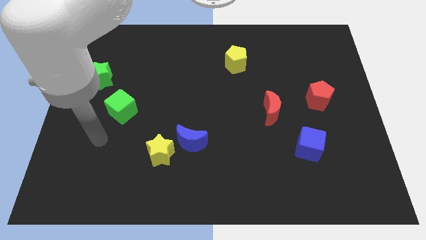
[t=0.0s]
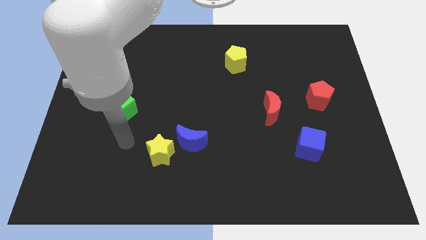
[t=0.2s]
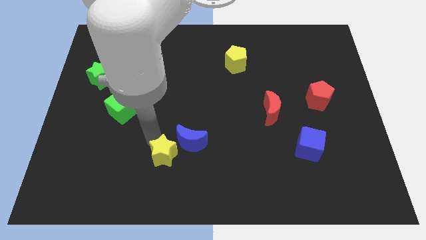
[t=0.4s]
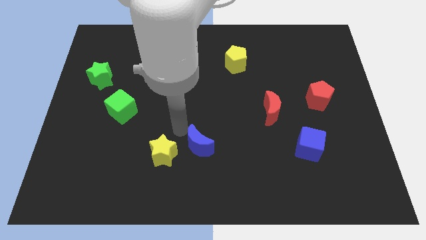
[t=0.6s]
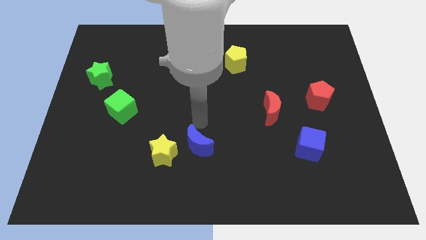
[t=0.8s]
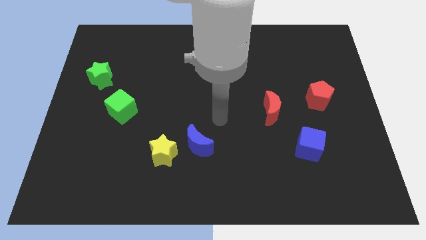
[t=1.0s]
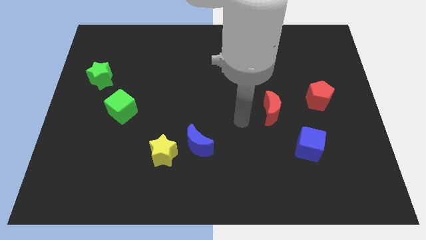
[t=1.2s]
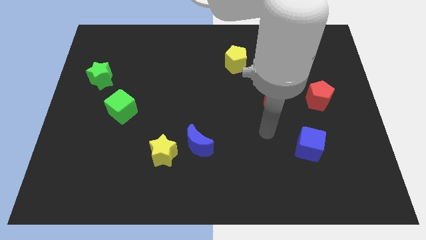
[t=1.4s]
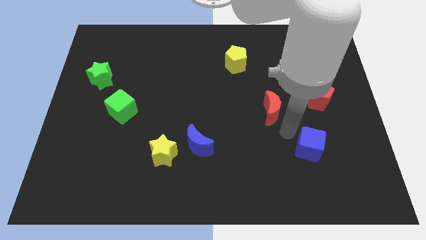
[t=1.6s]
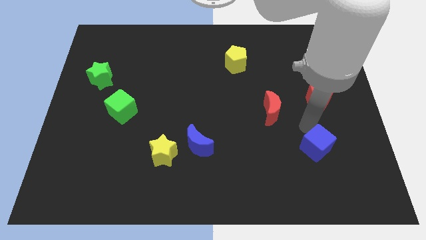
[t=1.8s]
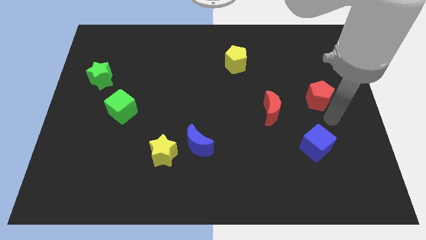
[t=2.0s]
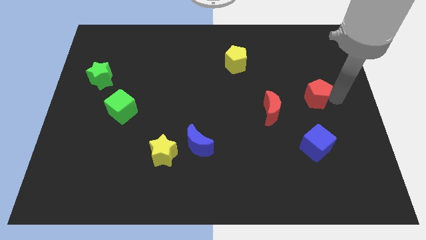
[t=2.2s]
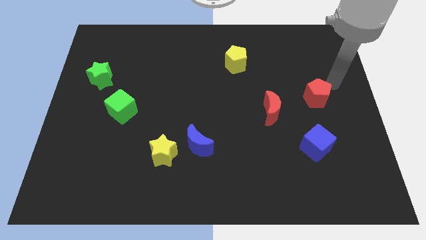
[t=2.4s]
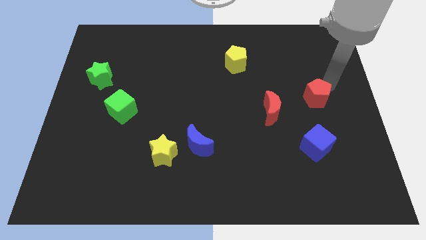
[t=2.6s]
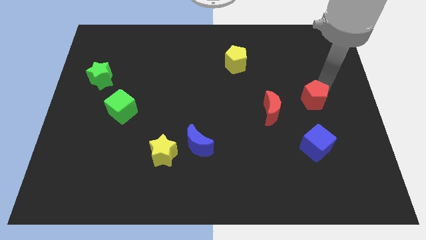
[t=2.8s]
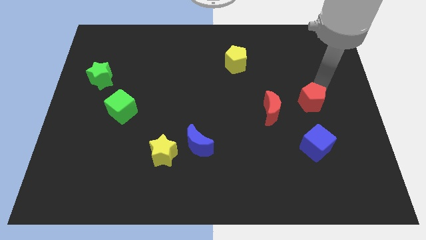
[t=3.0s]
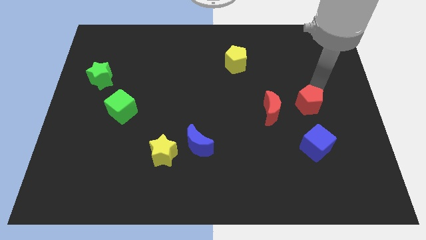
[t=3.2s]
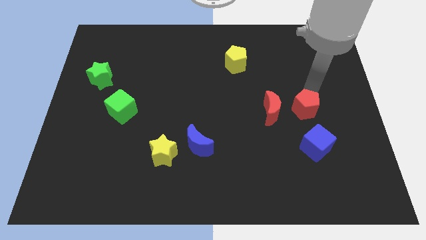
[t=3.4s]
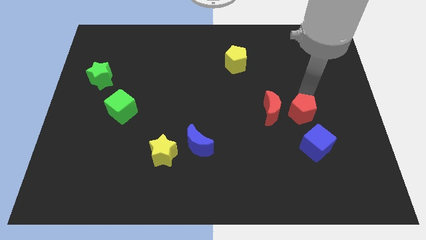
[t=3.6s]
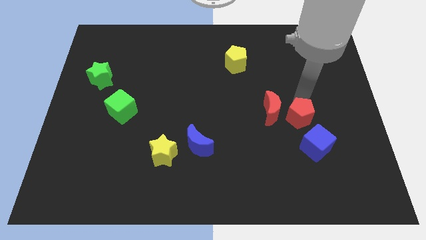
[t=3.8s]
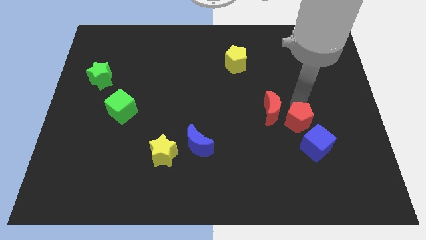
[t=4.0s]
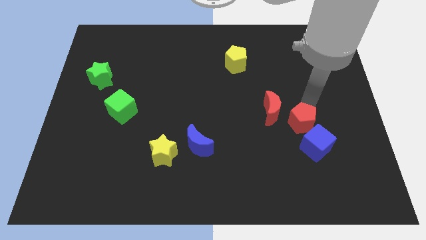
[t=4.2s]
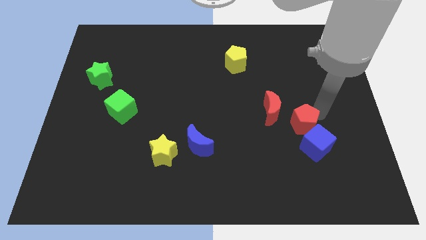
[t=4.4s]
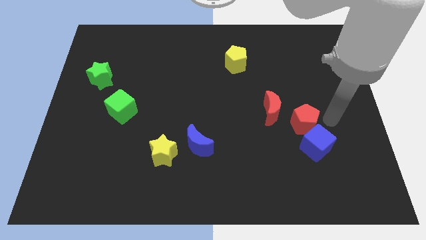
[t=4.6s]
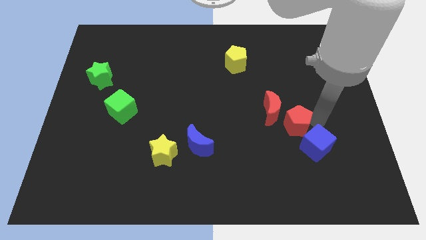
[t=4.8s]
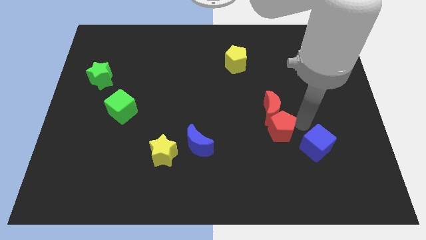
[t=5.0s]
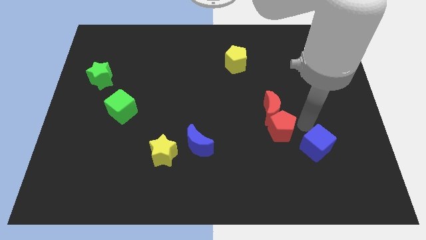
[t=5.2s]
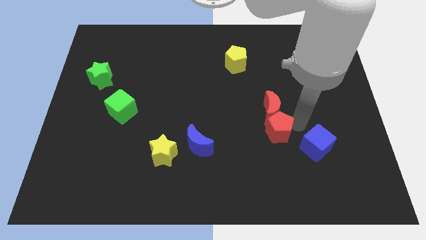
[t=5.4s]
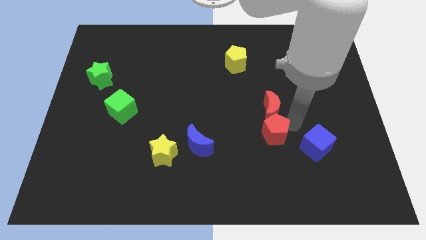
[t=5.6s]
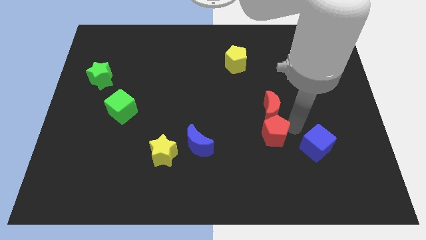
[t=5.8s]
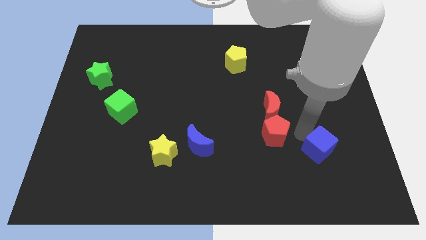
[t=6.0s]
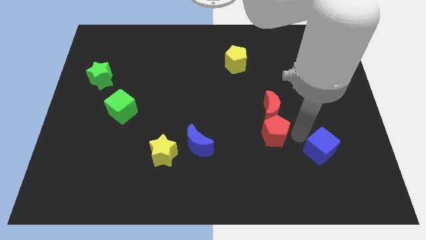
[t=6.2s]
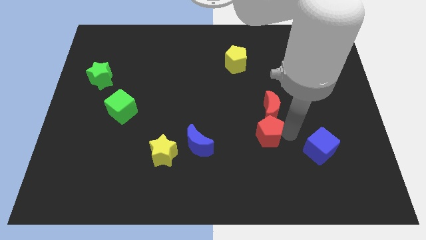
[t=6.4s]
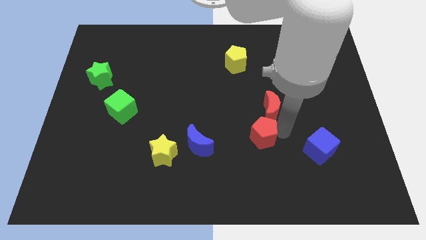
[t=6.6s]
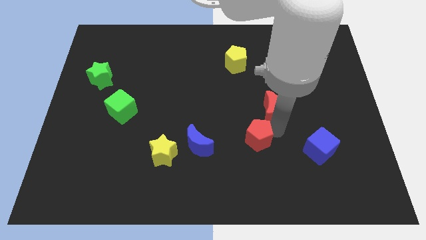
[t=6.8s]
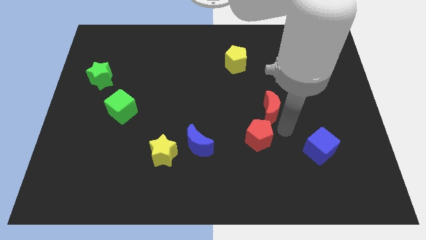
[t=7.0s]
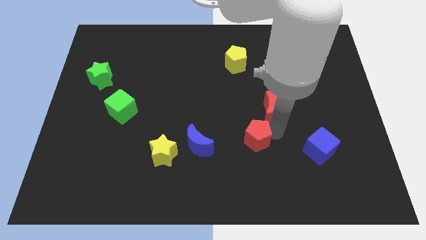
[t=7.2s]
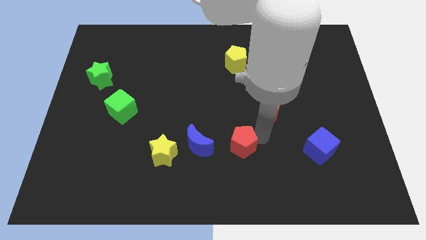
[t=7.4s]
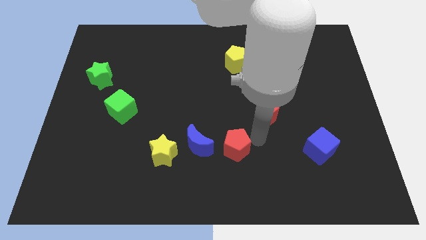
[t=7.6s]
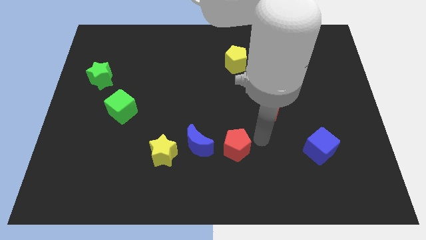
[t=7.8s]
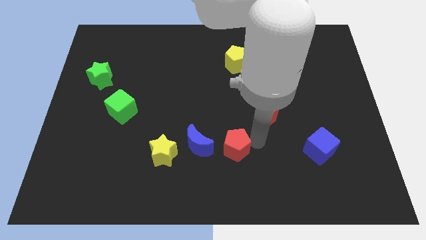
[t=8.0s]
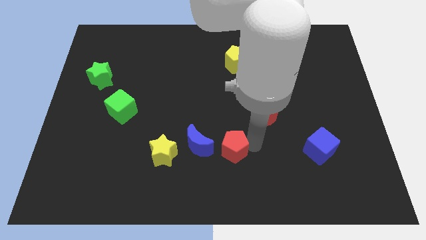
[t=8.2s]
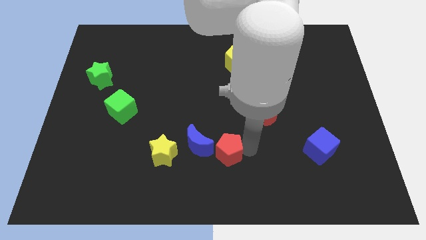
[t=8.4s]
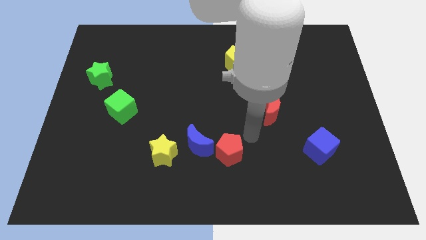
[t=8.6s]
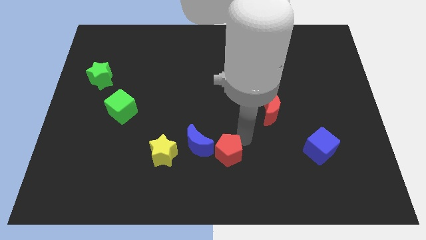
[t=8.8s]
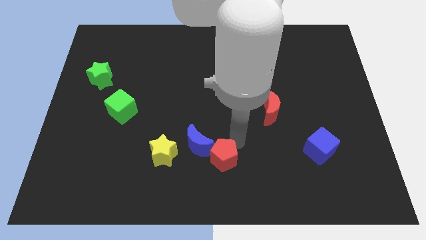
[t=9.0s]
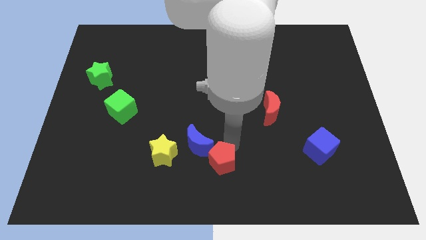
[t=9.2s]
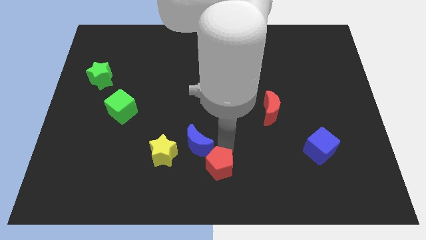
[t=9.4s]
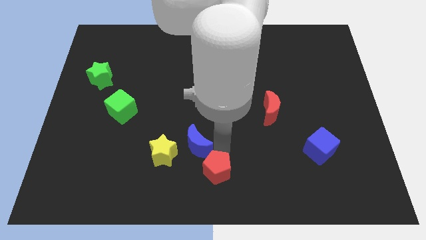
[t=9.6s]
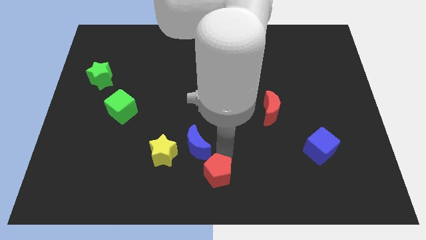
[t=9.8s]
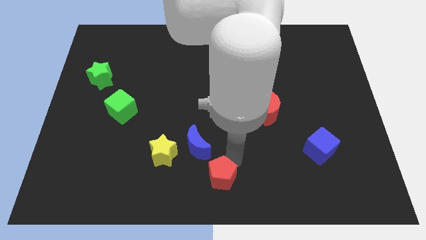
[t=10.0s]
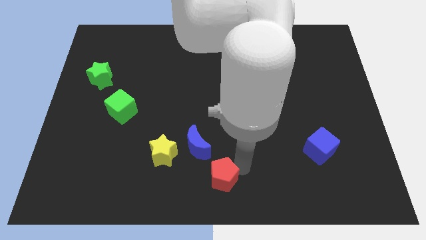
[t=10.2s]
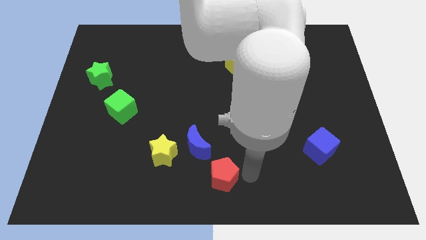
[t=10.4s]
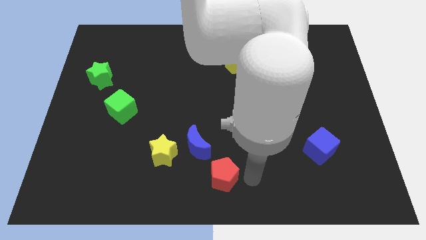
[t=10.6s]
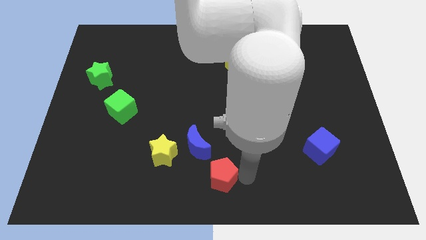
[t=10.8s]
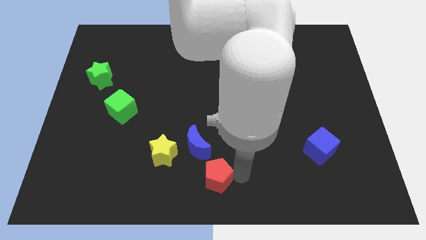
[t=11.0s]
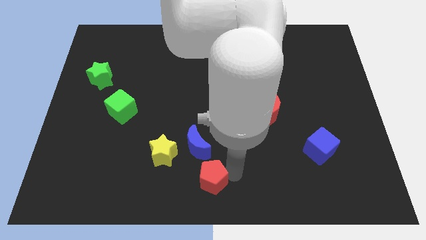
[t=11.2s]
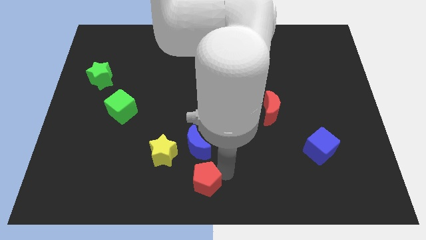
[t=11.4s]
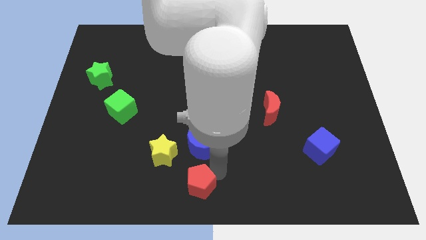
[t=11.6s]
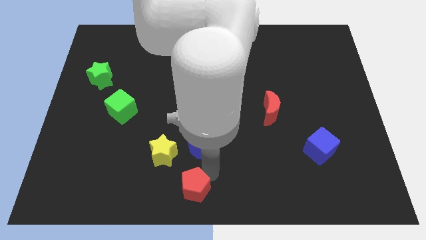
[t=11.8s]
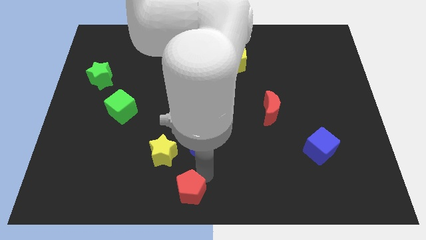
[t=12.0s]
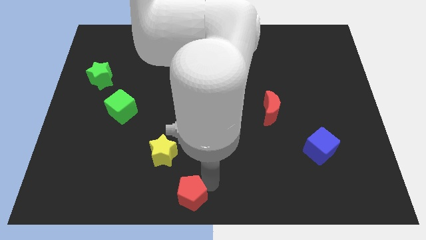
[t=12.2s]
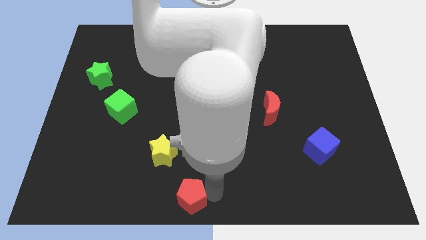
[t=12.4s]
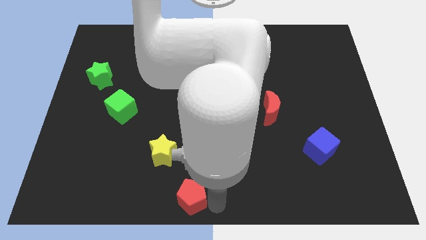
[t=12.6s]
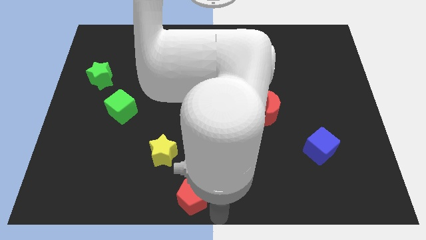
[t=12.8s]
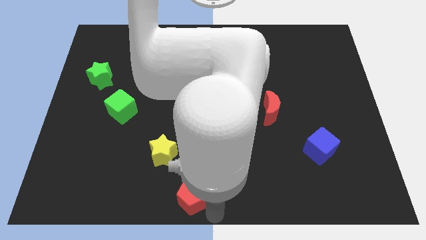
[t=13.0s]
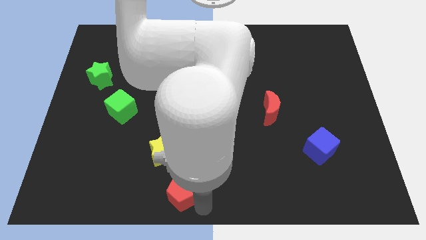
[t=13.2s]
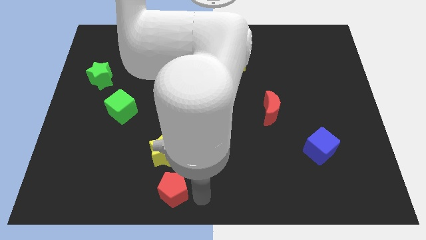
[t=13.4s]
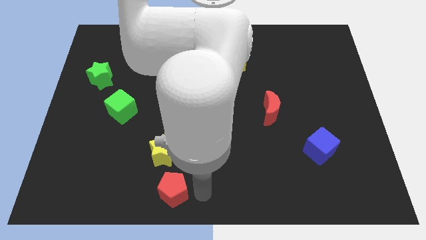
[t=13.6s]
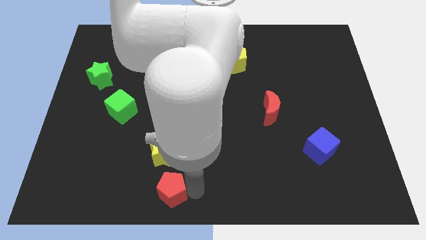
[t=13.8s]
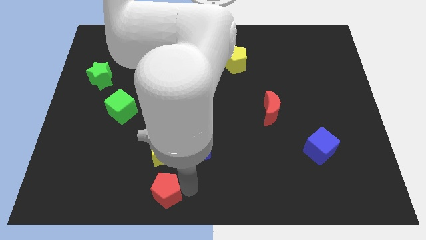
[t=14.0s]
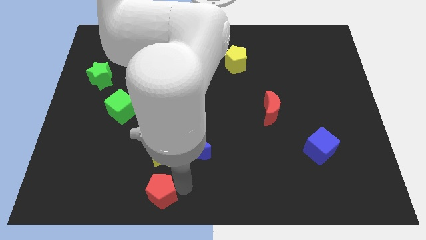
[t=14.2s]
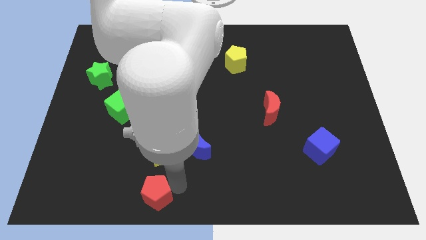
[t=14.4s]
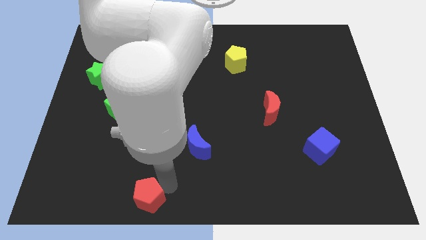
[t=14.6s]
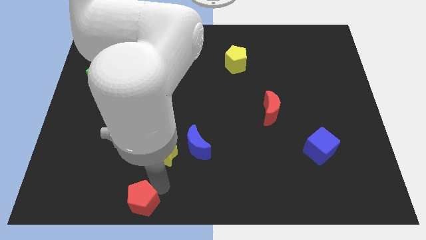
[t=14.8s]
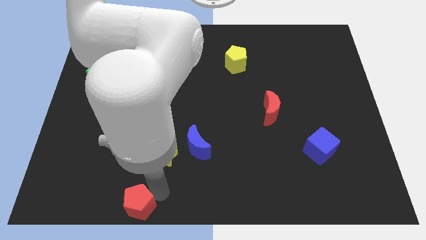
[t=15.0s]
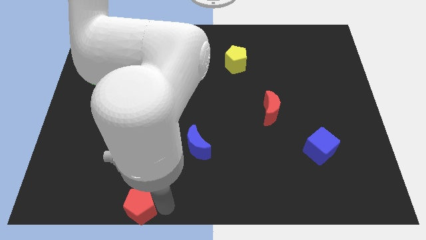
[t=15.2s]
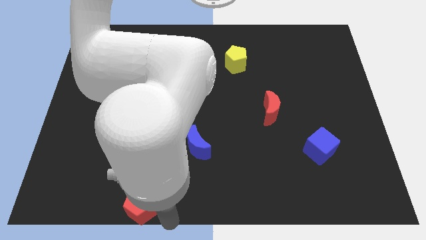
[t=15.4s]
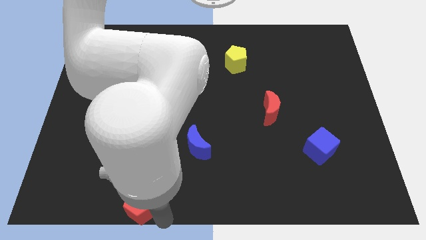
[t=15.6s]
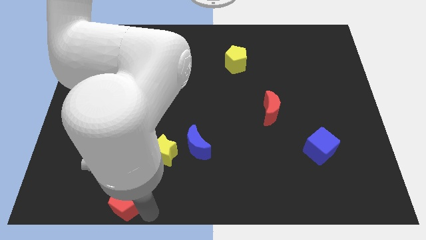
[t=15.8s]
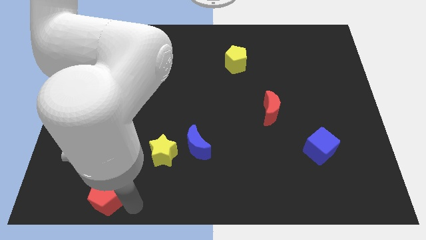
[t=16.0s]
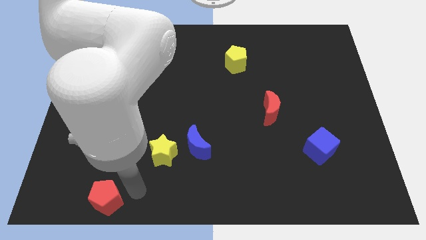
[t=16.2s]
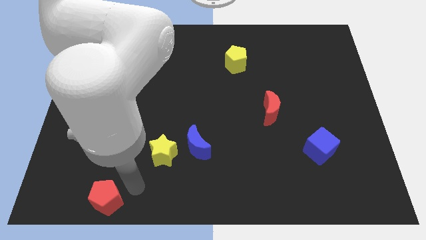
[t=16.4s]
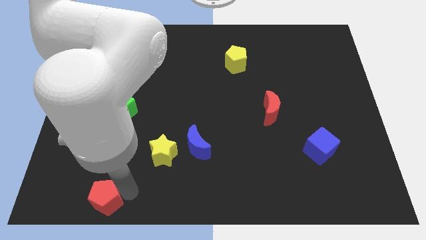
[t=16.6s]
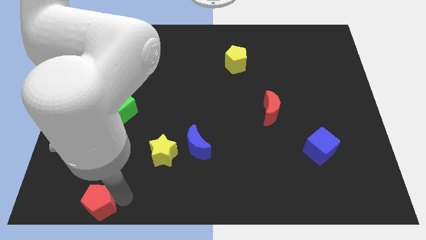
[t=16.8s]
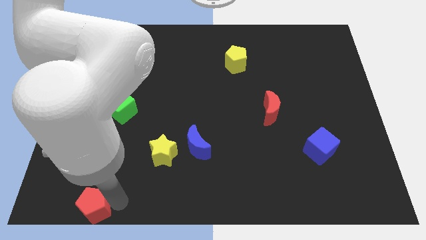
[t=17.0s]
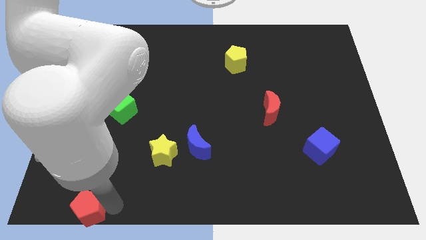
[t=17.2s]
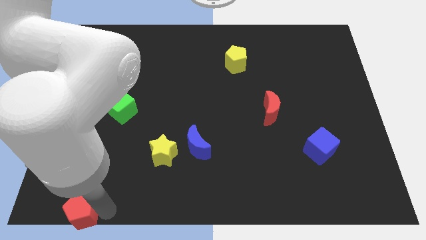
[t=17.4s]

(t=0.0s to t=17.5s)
push the red pentagon to the bottom left corner
